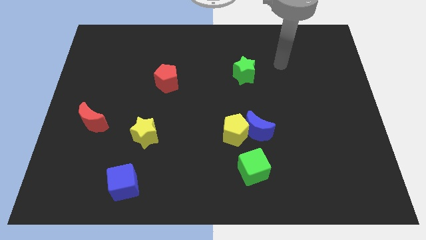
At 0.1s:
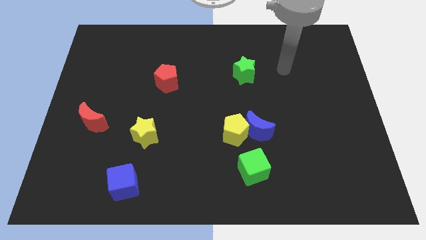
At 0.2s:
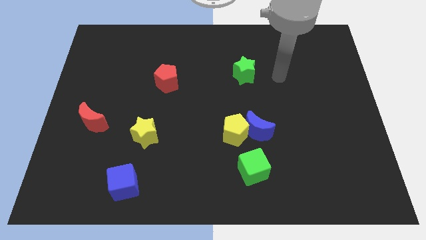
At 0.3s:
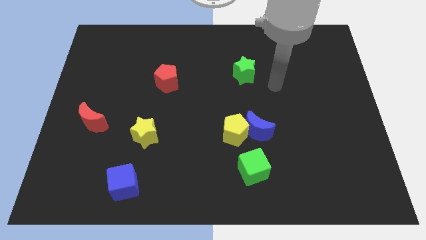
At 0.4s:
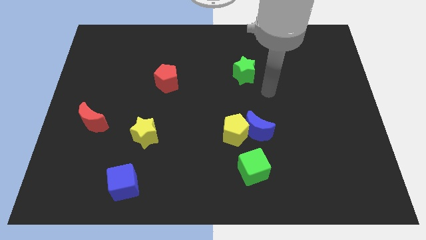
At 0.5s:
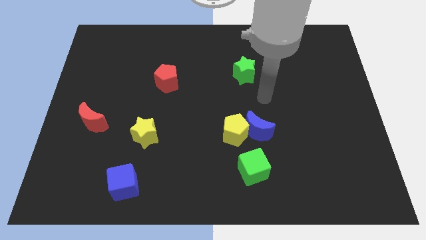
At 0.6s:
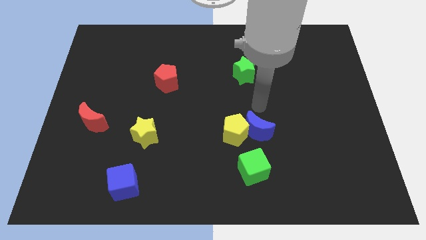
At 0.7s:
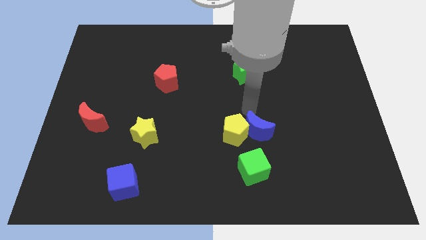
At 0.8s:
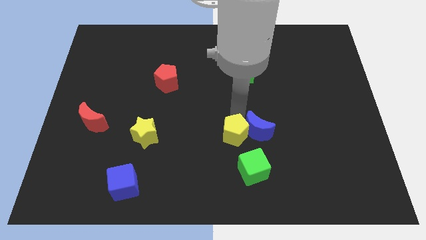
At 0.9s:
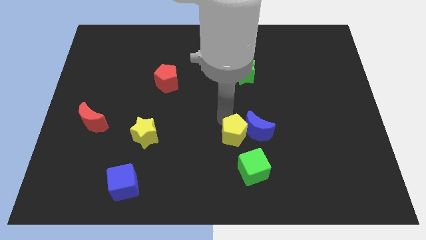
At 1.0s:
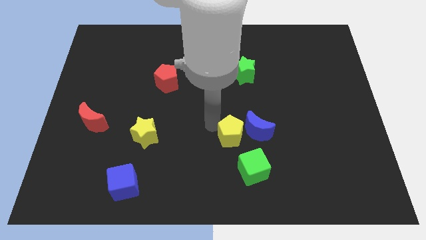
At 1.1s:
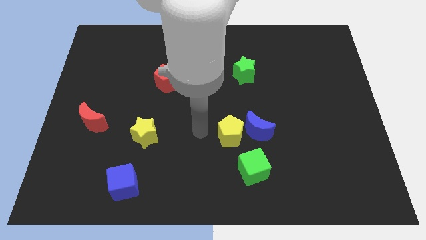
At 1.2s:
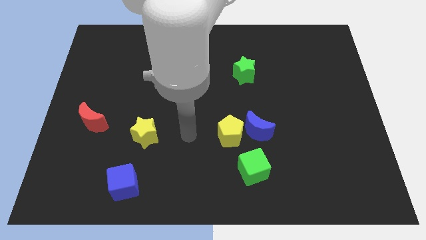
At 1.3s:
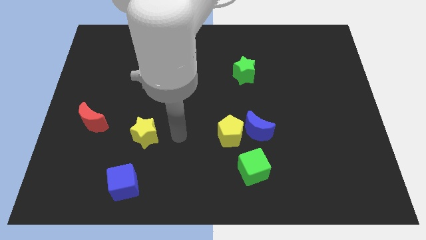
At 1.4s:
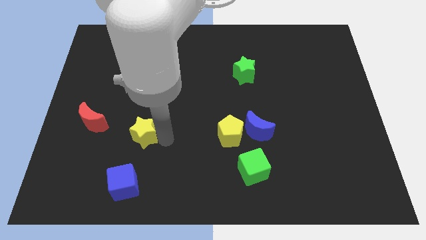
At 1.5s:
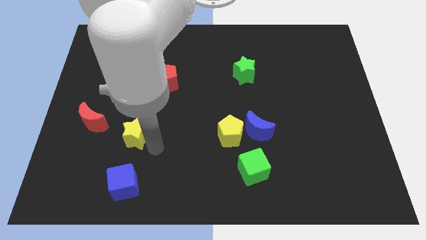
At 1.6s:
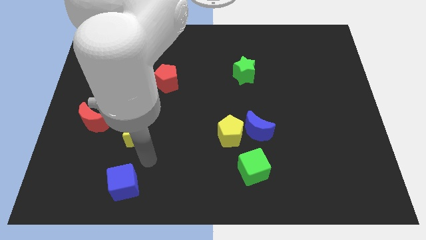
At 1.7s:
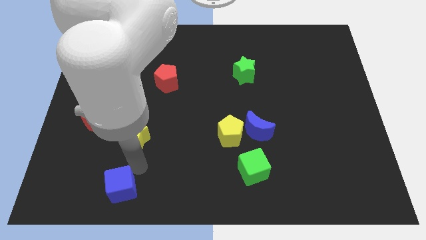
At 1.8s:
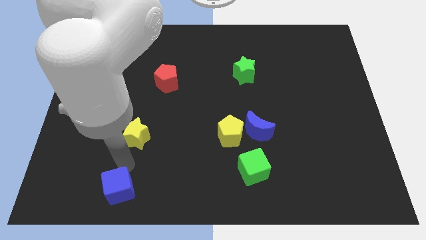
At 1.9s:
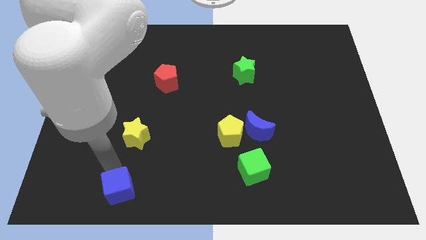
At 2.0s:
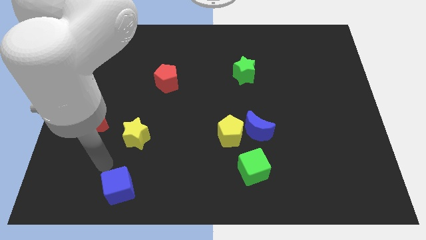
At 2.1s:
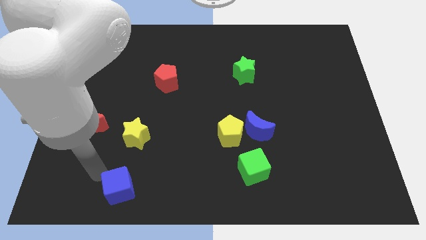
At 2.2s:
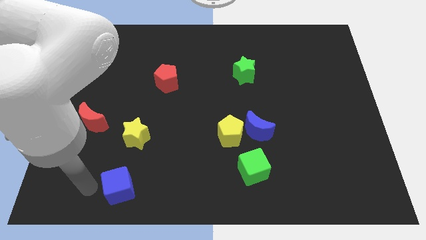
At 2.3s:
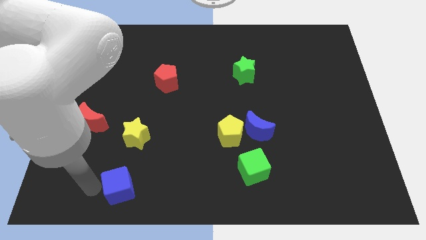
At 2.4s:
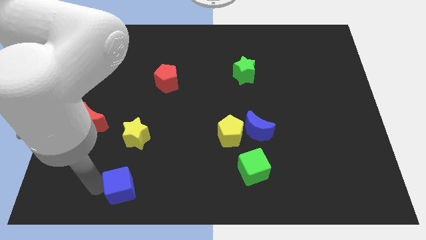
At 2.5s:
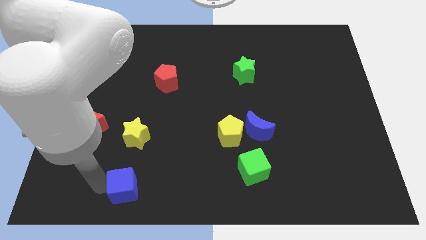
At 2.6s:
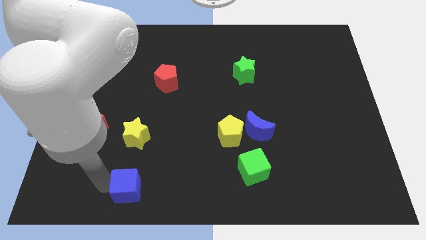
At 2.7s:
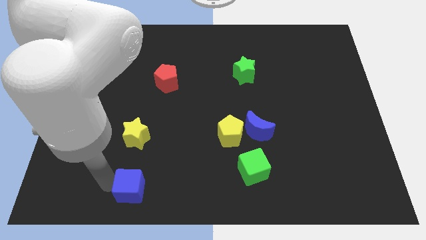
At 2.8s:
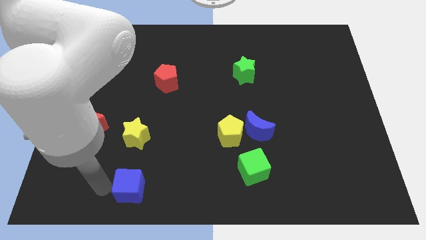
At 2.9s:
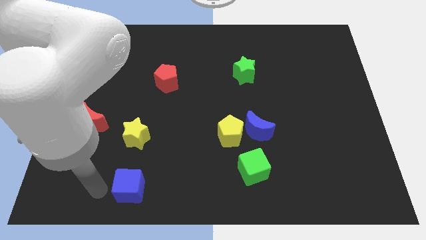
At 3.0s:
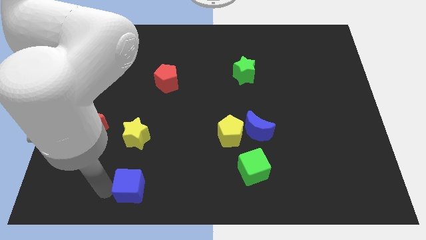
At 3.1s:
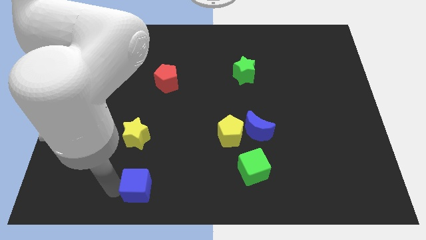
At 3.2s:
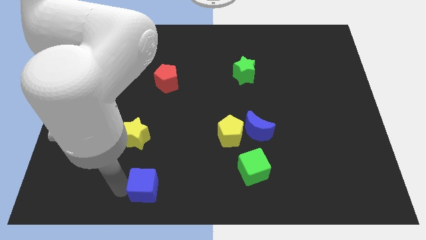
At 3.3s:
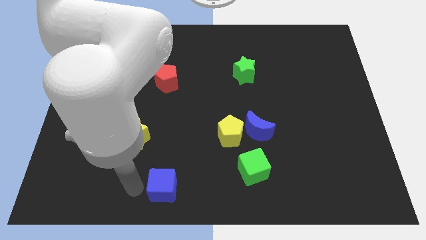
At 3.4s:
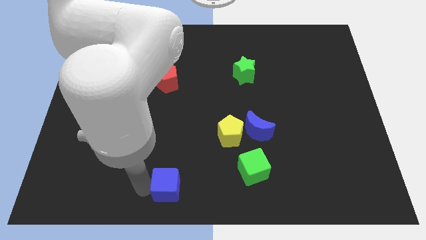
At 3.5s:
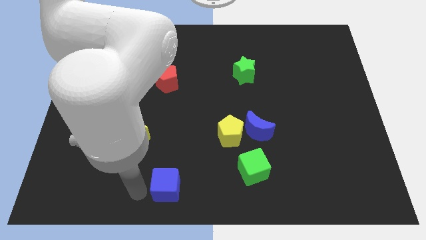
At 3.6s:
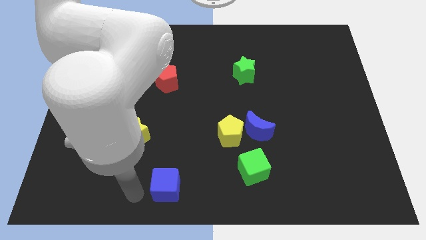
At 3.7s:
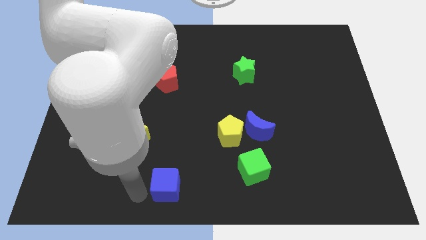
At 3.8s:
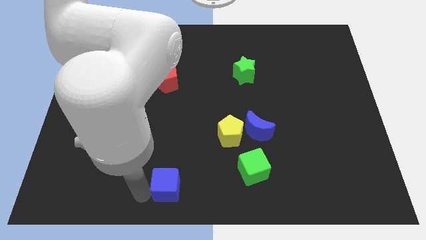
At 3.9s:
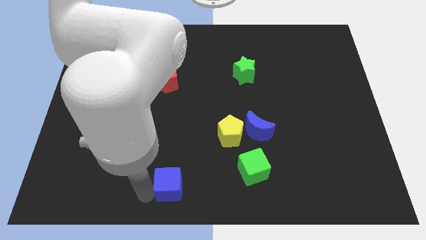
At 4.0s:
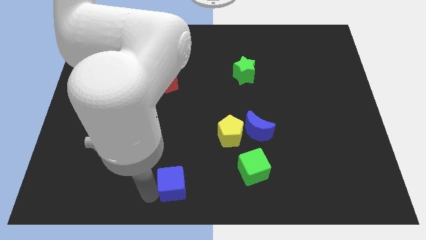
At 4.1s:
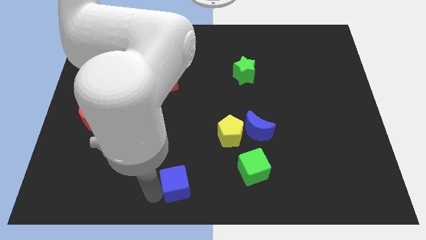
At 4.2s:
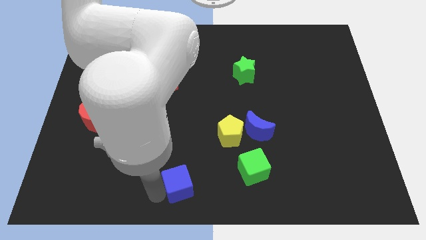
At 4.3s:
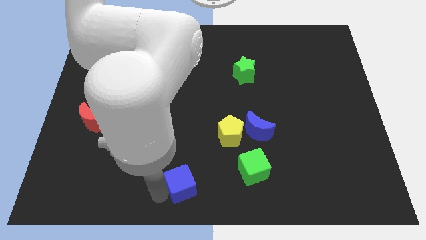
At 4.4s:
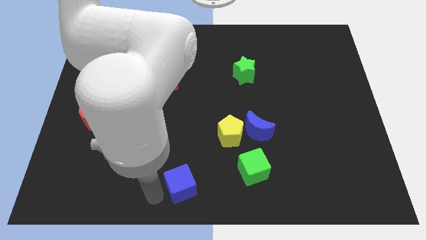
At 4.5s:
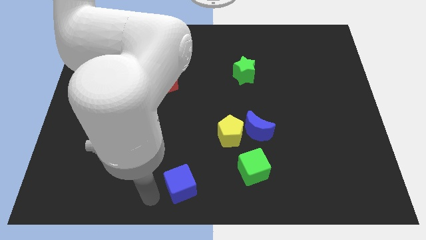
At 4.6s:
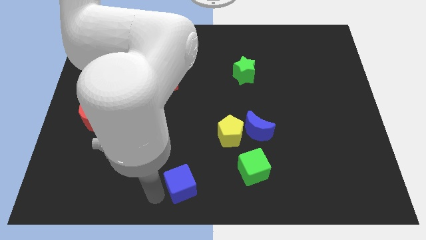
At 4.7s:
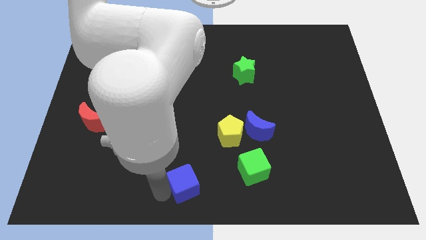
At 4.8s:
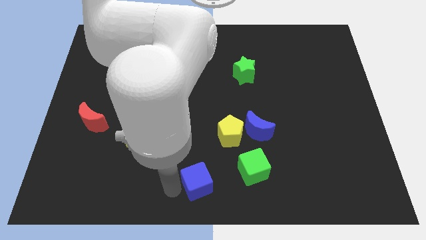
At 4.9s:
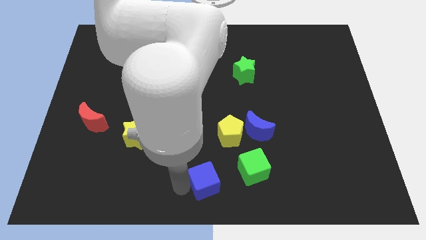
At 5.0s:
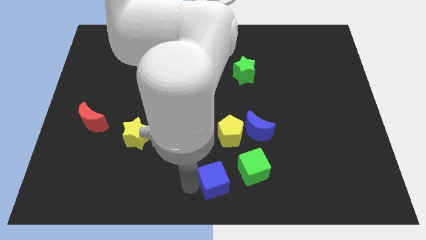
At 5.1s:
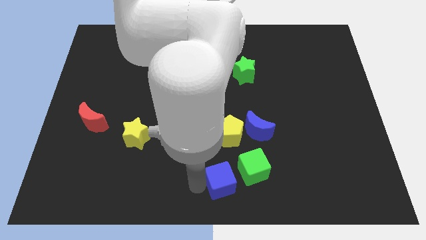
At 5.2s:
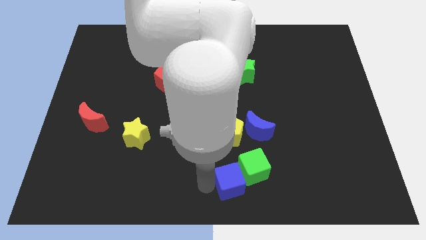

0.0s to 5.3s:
push the blue cube towards the green cube

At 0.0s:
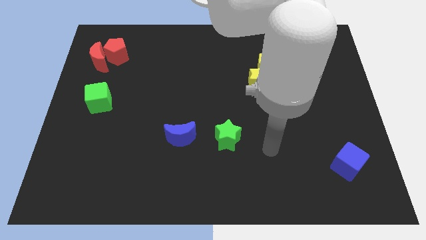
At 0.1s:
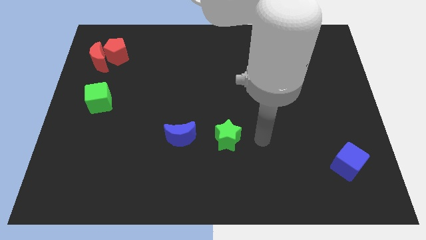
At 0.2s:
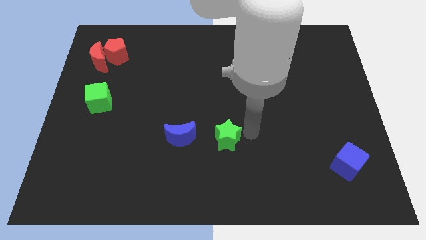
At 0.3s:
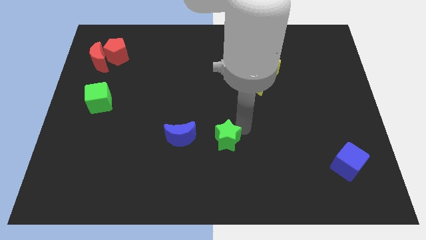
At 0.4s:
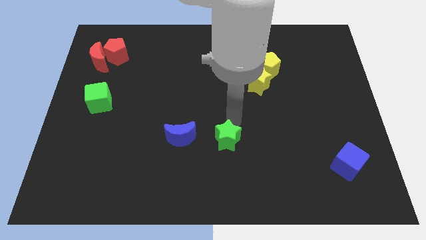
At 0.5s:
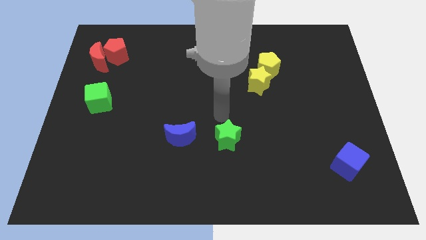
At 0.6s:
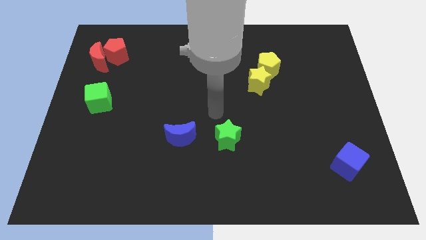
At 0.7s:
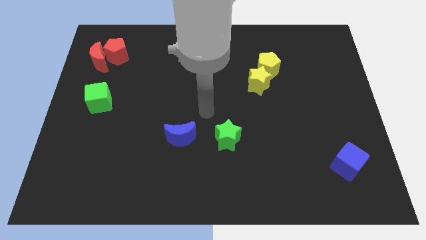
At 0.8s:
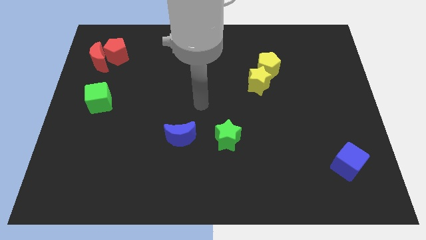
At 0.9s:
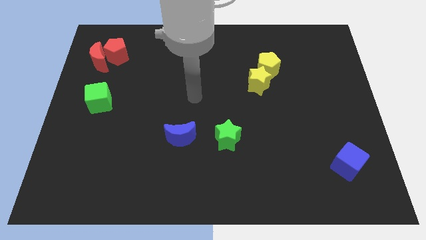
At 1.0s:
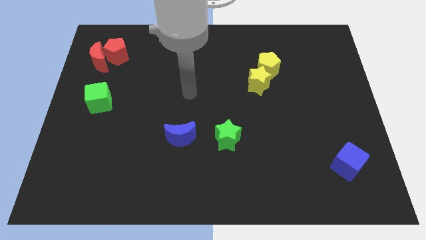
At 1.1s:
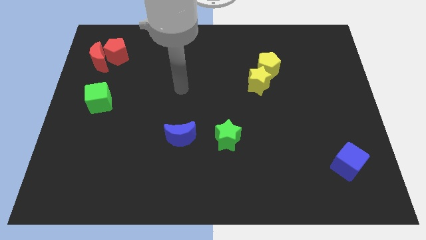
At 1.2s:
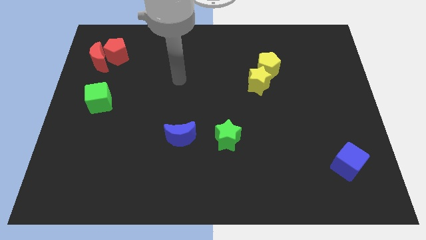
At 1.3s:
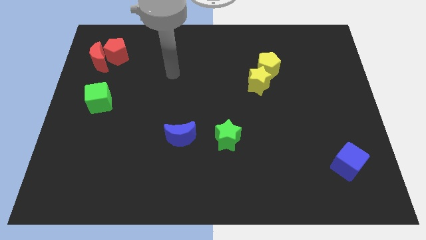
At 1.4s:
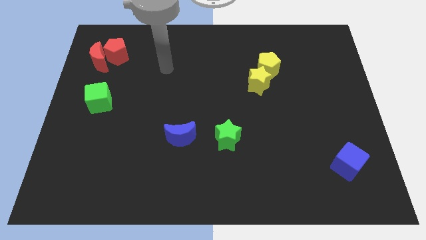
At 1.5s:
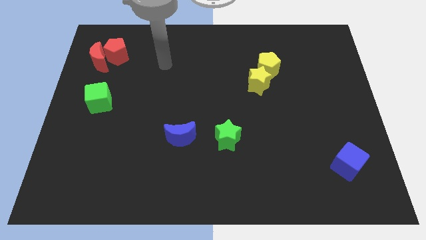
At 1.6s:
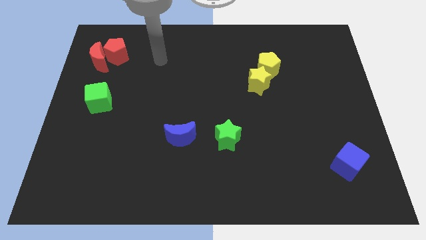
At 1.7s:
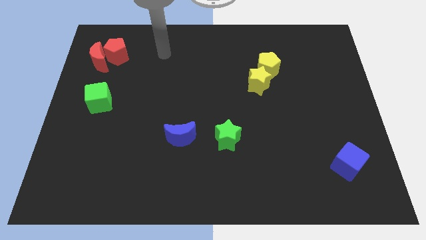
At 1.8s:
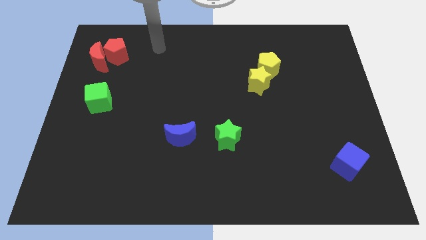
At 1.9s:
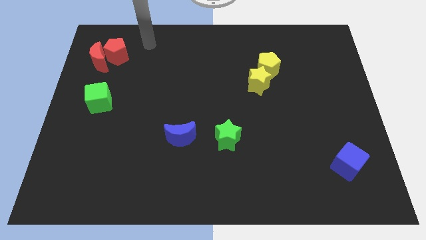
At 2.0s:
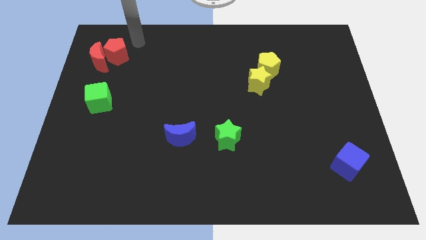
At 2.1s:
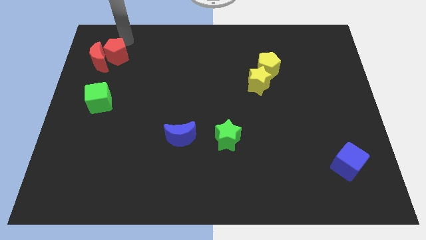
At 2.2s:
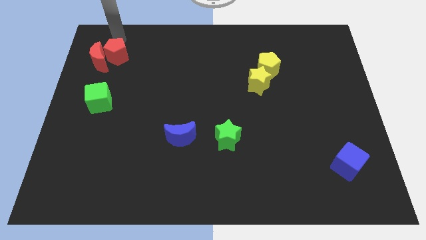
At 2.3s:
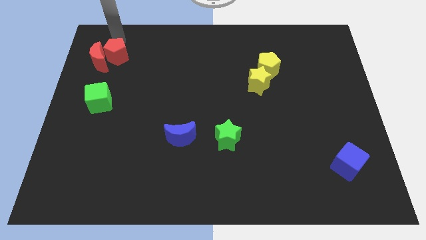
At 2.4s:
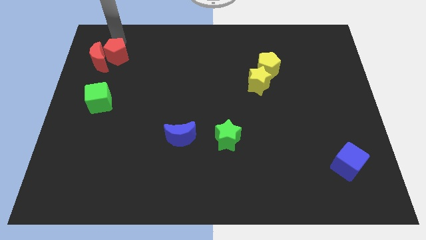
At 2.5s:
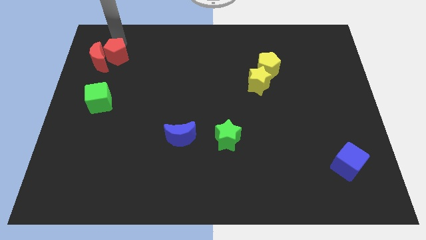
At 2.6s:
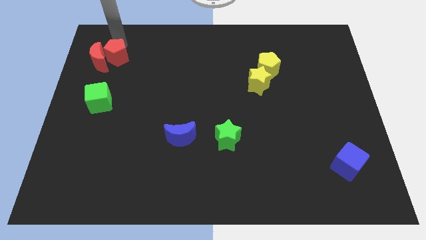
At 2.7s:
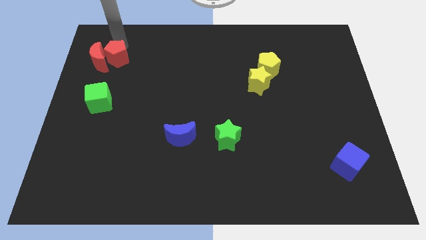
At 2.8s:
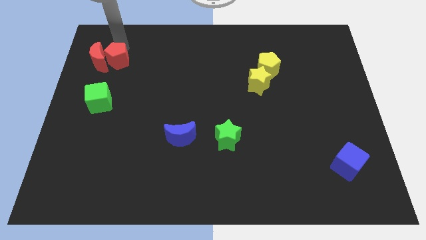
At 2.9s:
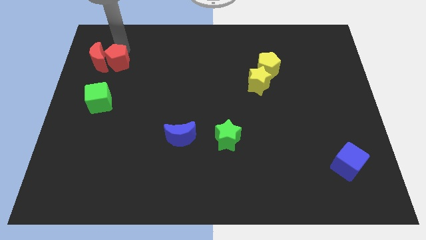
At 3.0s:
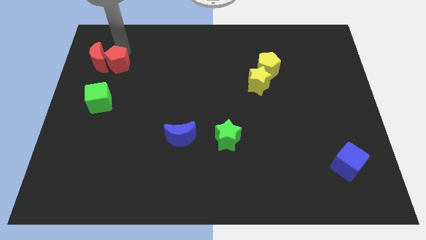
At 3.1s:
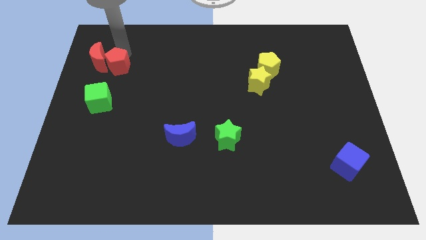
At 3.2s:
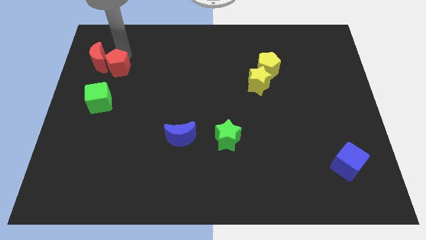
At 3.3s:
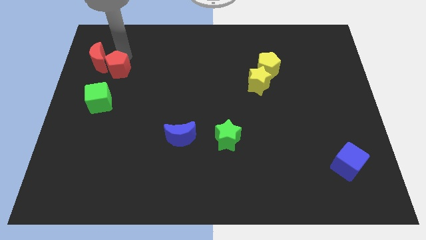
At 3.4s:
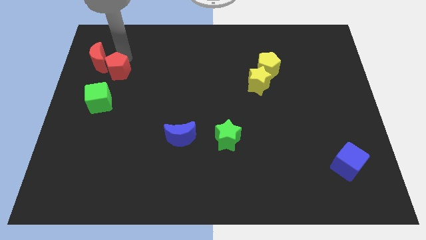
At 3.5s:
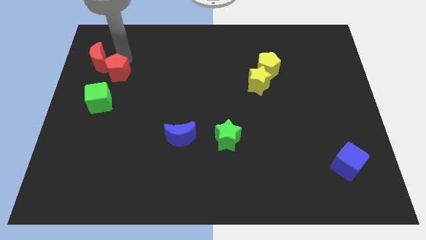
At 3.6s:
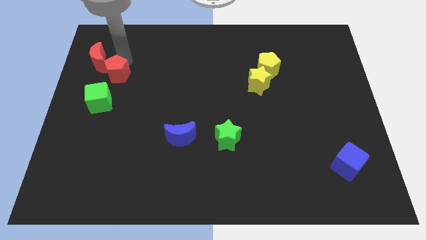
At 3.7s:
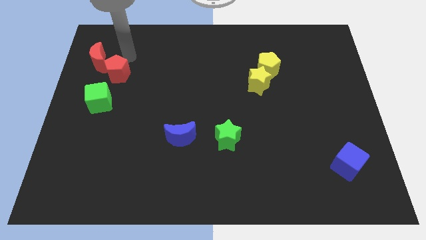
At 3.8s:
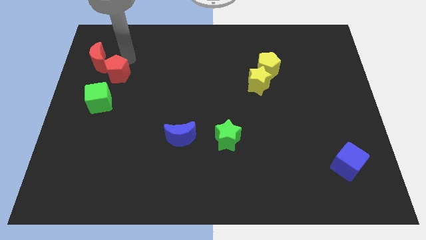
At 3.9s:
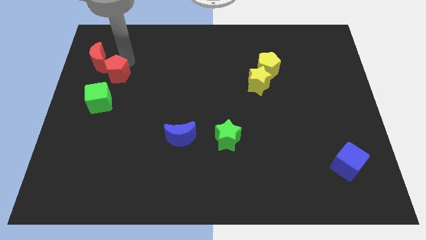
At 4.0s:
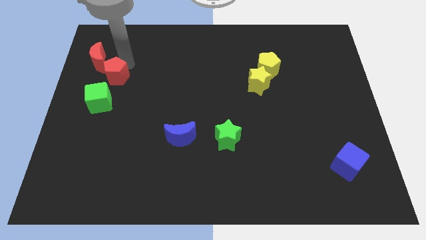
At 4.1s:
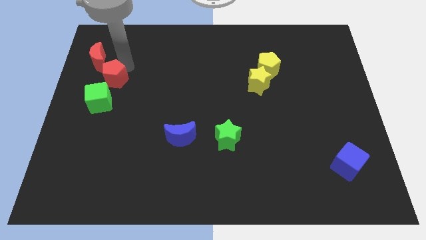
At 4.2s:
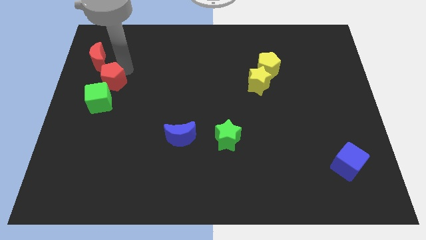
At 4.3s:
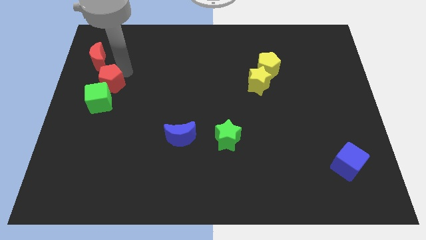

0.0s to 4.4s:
put the red pentagon next to the green cube
